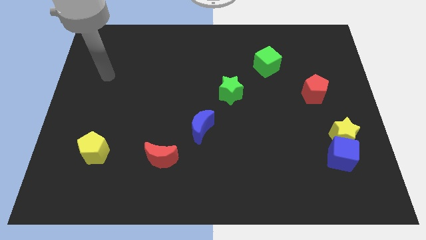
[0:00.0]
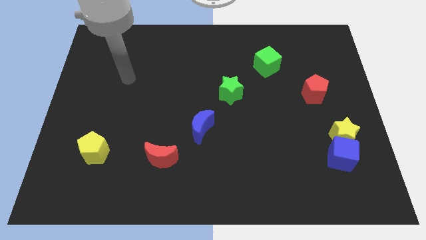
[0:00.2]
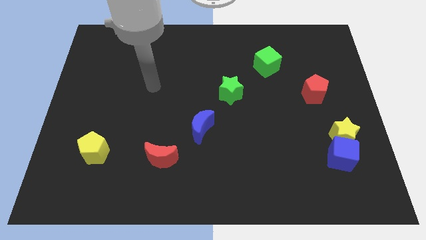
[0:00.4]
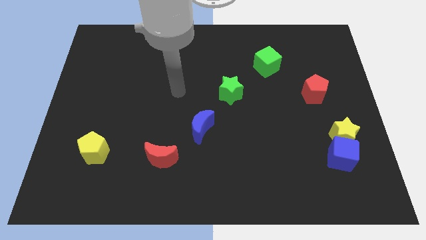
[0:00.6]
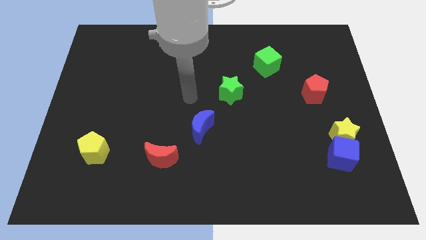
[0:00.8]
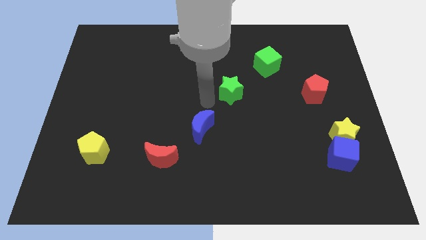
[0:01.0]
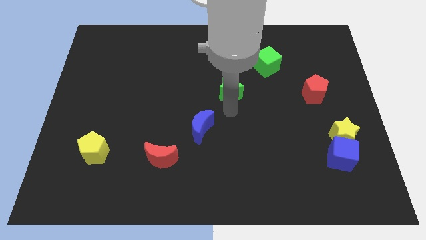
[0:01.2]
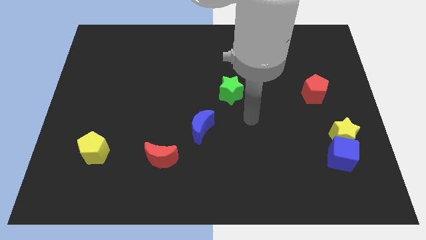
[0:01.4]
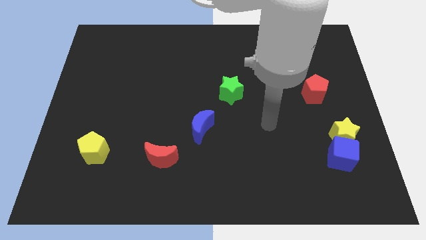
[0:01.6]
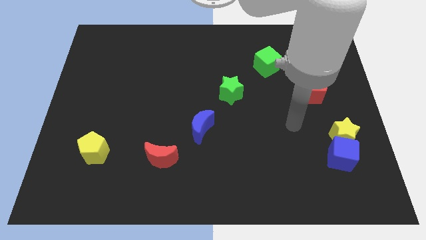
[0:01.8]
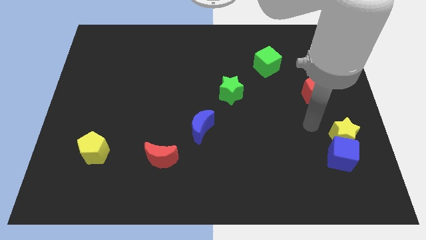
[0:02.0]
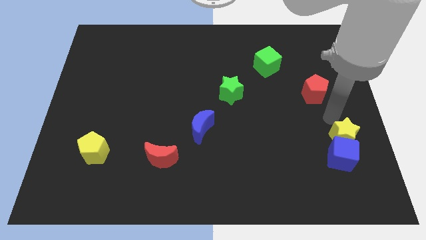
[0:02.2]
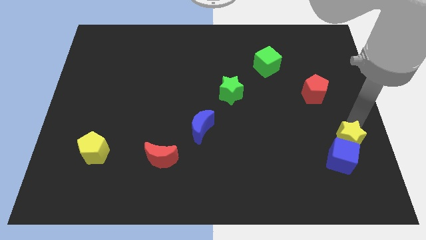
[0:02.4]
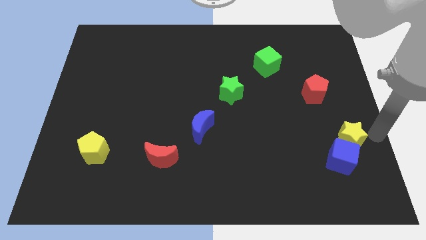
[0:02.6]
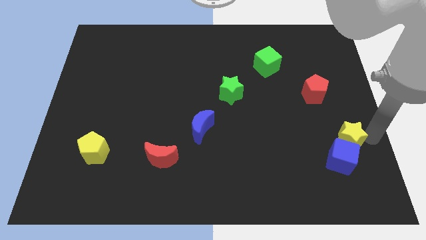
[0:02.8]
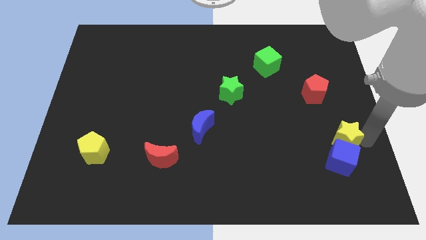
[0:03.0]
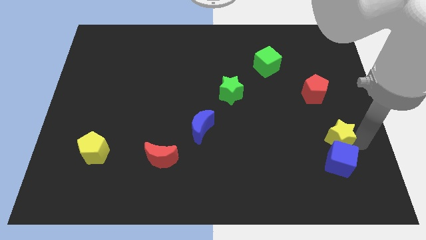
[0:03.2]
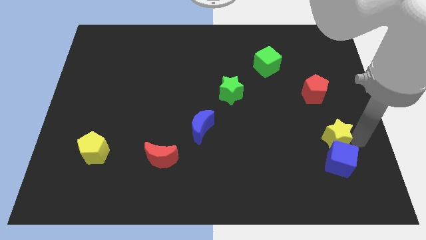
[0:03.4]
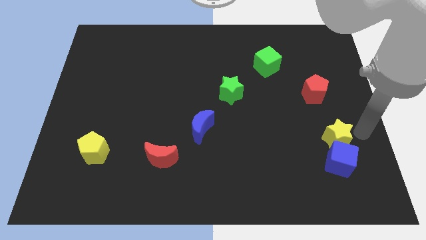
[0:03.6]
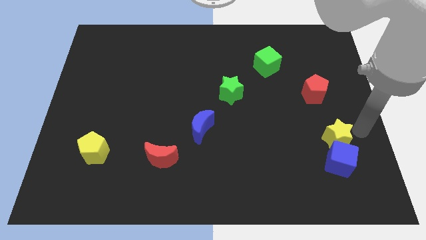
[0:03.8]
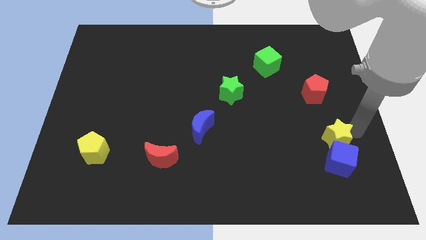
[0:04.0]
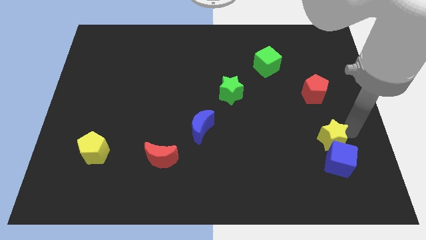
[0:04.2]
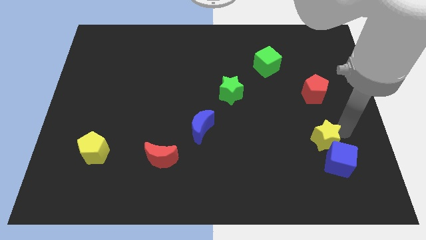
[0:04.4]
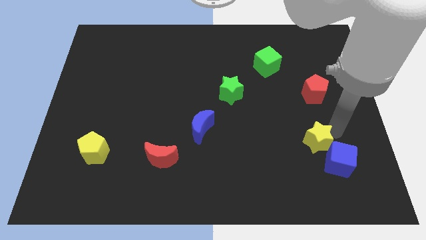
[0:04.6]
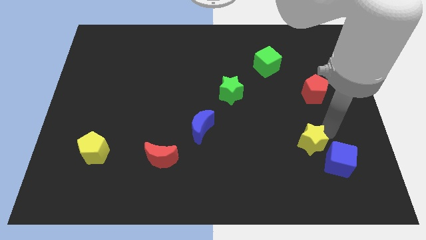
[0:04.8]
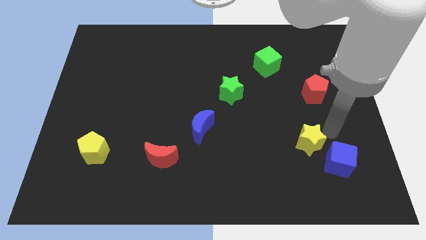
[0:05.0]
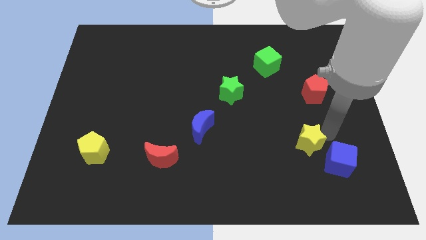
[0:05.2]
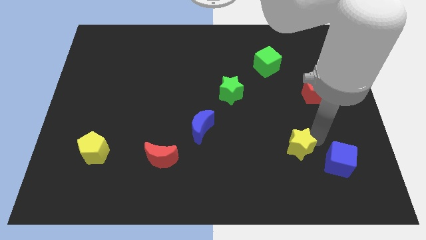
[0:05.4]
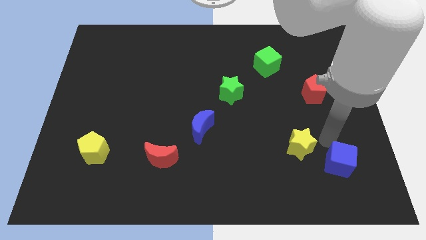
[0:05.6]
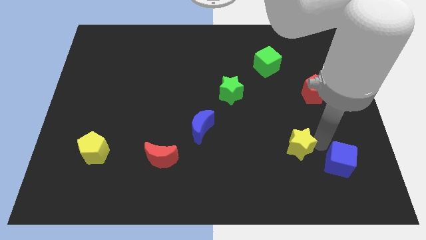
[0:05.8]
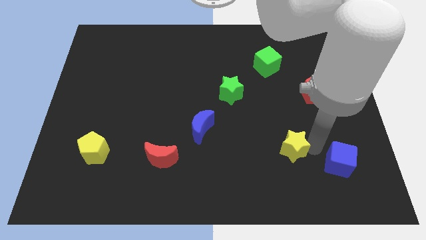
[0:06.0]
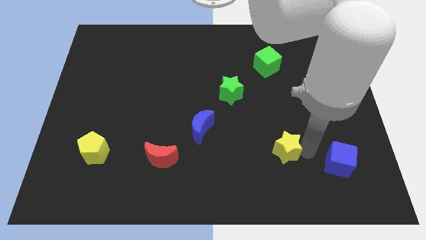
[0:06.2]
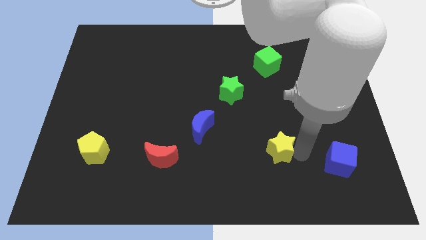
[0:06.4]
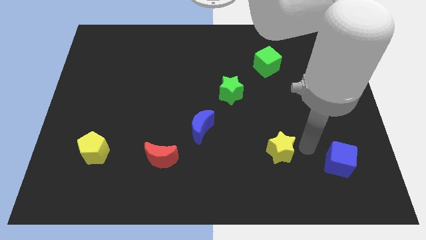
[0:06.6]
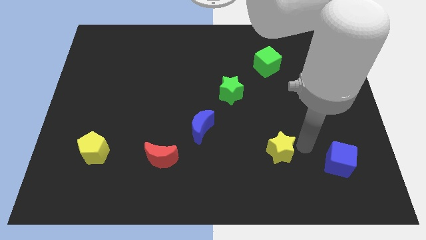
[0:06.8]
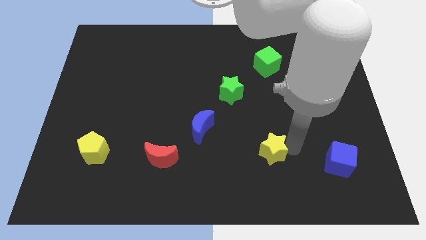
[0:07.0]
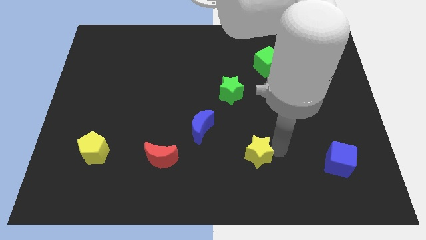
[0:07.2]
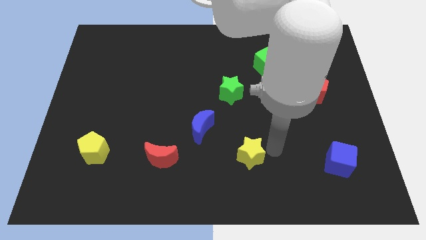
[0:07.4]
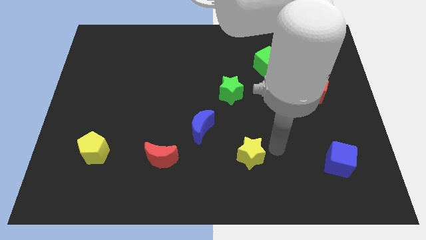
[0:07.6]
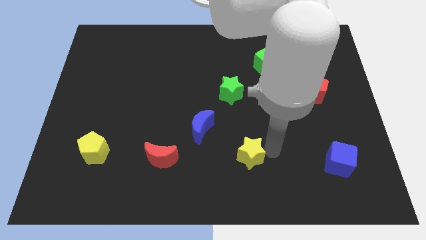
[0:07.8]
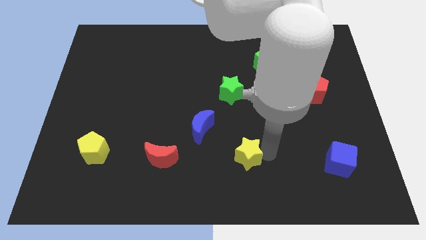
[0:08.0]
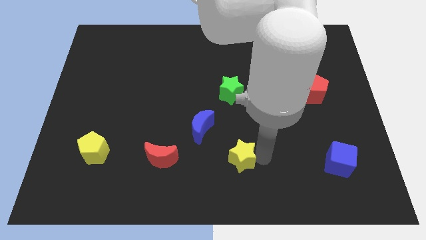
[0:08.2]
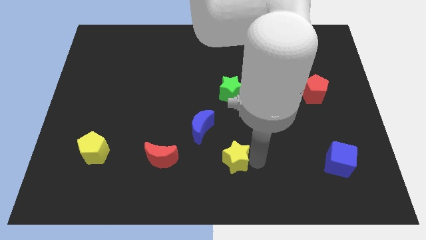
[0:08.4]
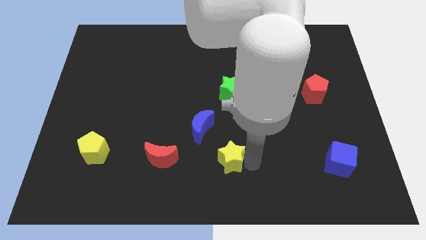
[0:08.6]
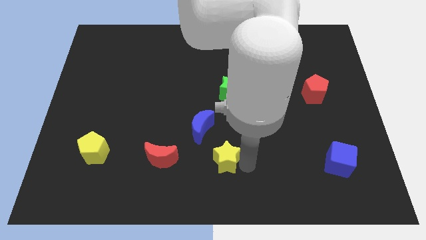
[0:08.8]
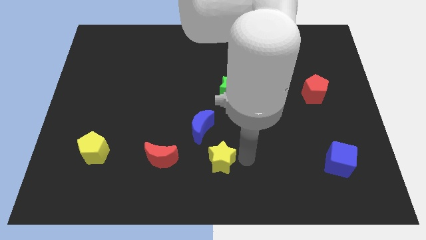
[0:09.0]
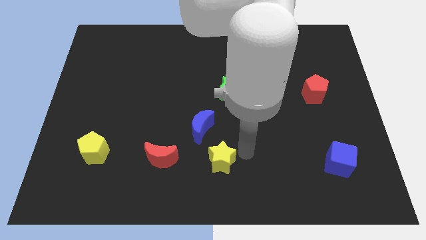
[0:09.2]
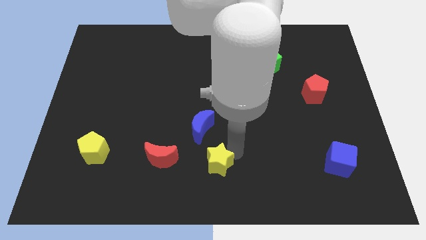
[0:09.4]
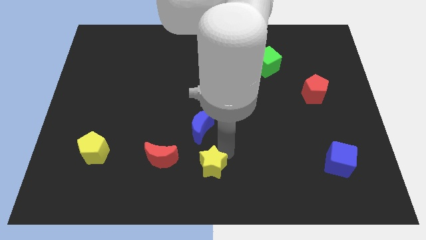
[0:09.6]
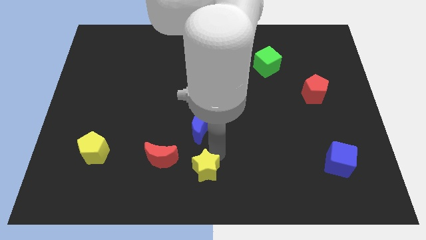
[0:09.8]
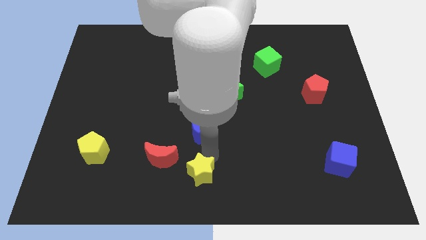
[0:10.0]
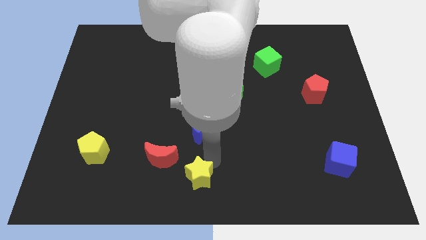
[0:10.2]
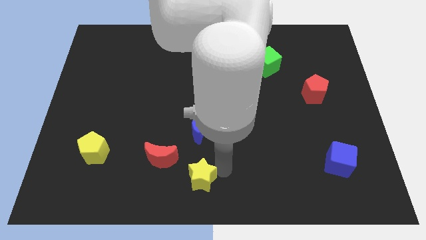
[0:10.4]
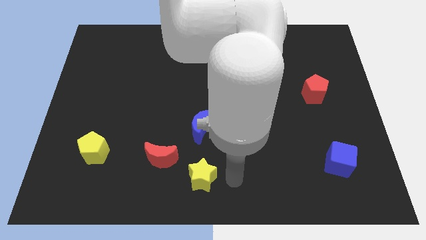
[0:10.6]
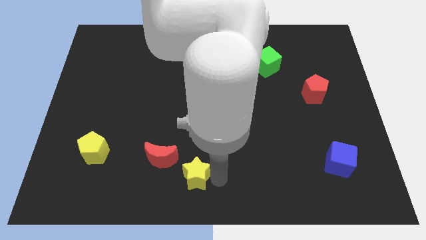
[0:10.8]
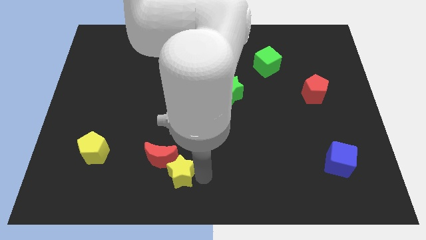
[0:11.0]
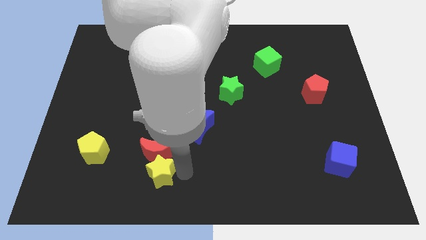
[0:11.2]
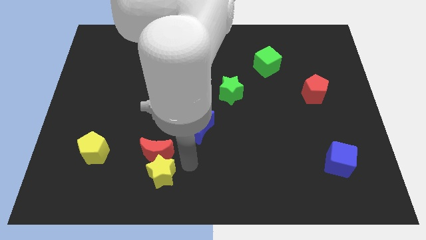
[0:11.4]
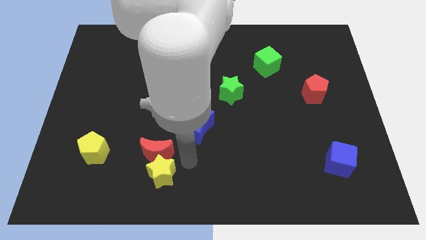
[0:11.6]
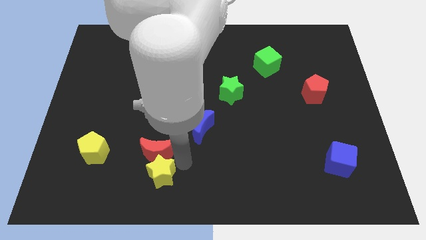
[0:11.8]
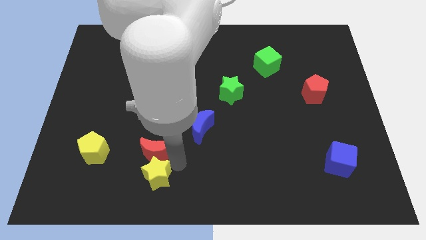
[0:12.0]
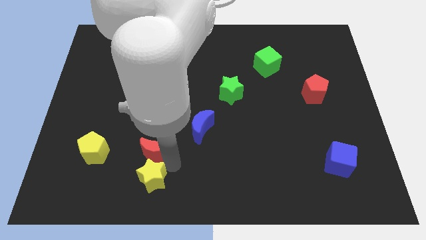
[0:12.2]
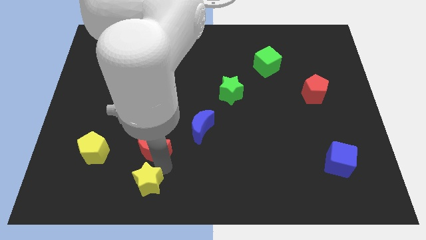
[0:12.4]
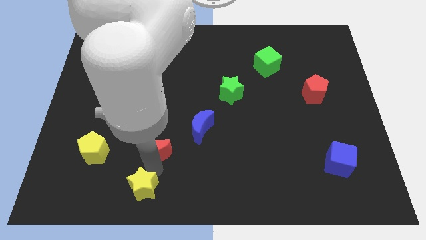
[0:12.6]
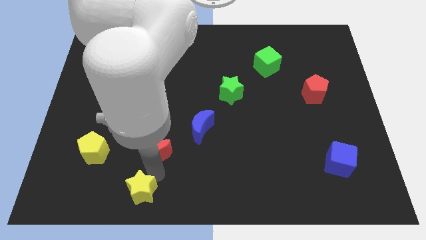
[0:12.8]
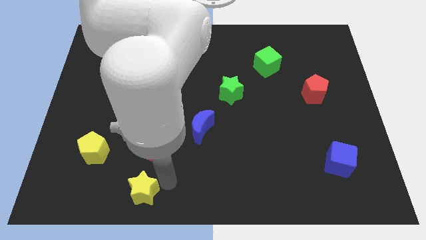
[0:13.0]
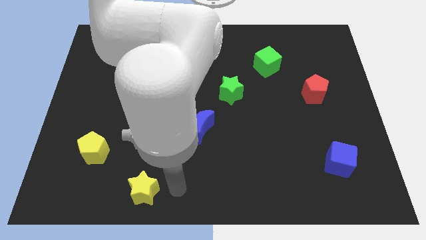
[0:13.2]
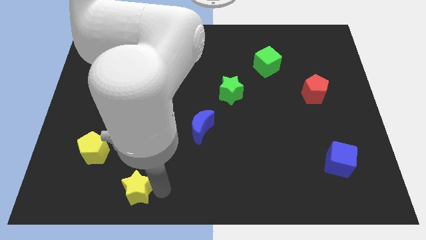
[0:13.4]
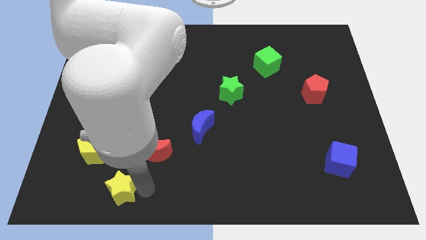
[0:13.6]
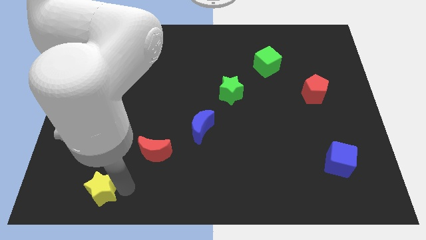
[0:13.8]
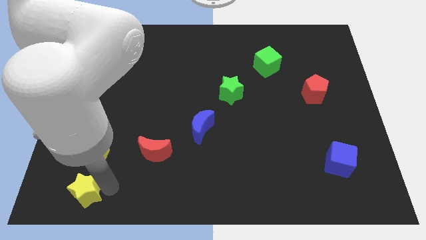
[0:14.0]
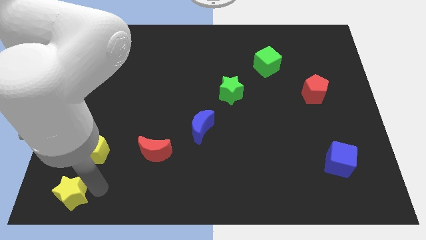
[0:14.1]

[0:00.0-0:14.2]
push the yellow star to the lower left corner
